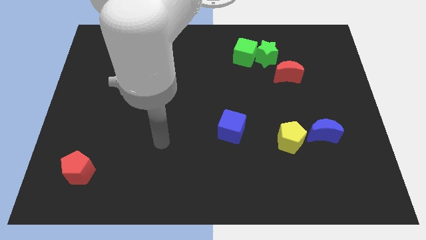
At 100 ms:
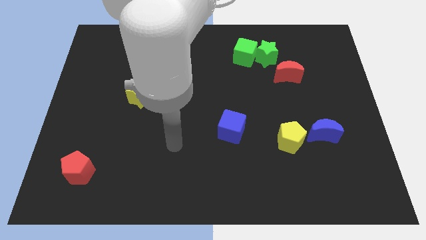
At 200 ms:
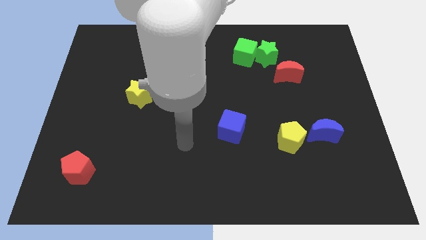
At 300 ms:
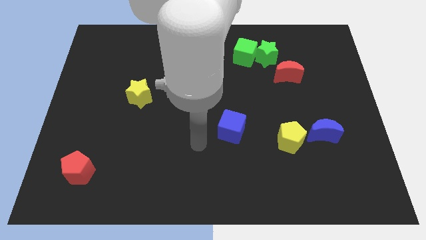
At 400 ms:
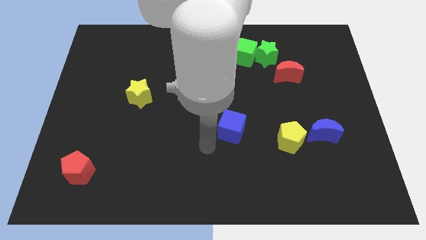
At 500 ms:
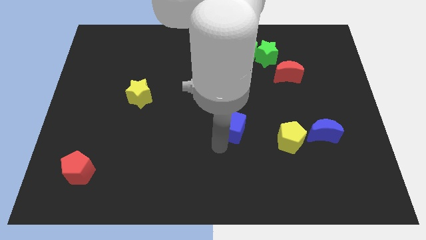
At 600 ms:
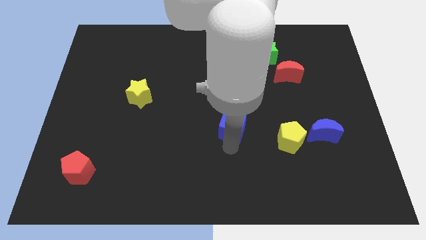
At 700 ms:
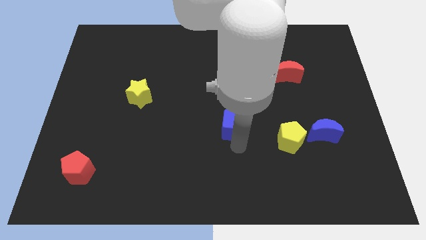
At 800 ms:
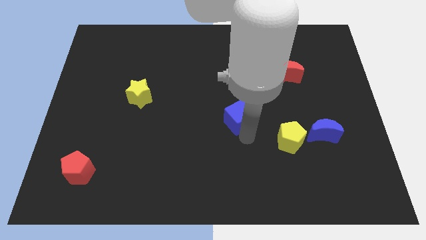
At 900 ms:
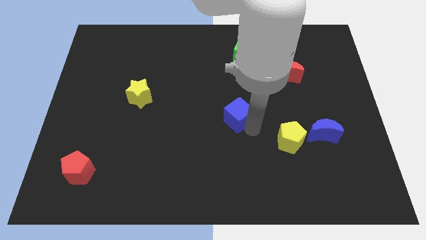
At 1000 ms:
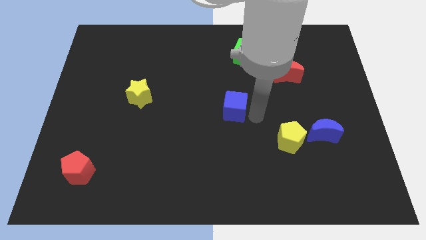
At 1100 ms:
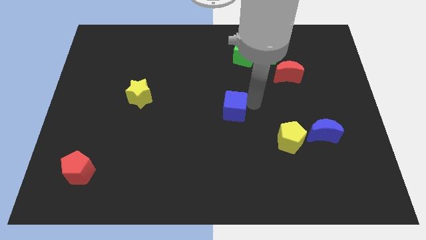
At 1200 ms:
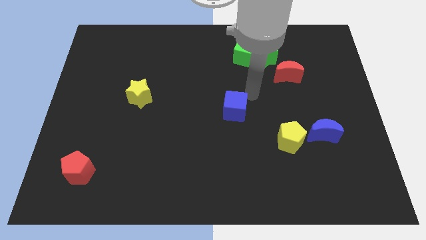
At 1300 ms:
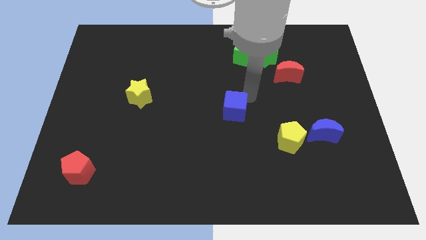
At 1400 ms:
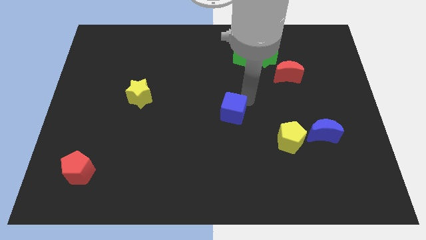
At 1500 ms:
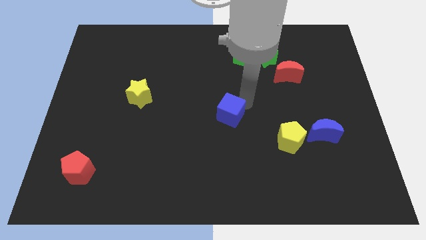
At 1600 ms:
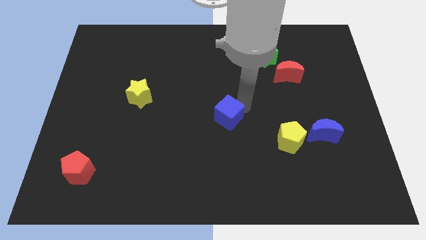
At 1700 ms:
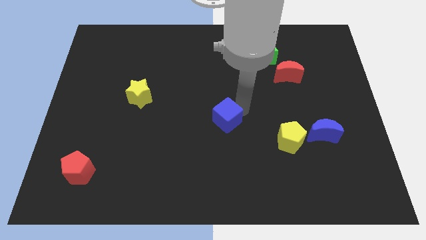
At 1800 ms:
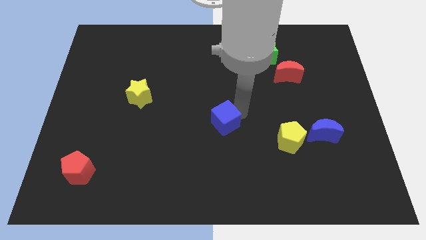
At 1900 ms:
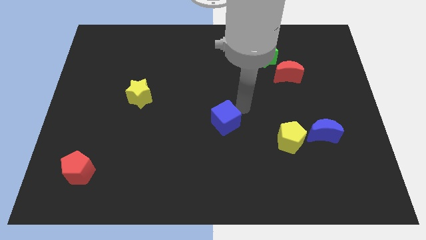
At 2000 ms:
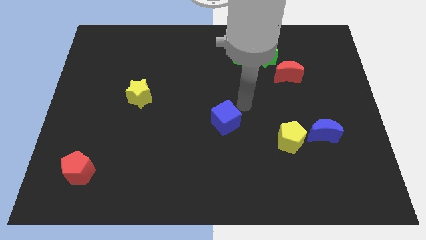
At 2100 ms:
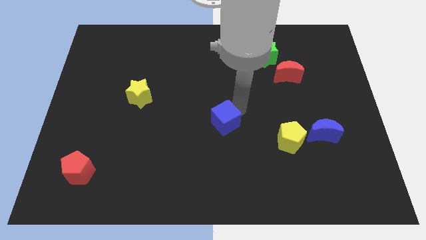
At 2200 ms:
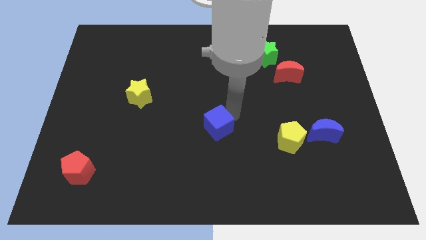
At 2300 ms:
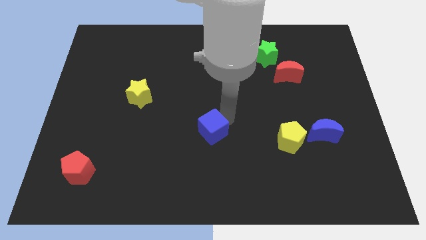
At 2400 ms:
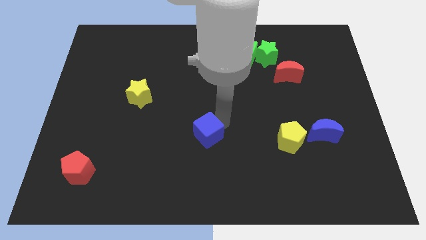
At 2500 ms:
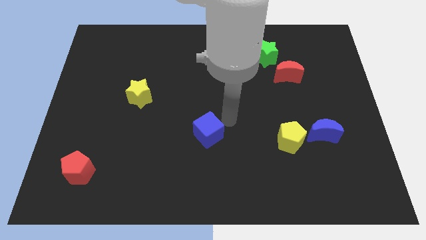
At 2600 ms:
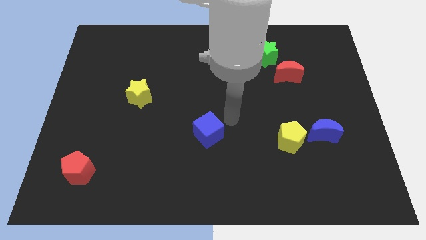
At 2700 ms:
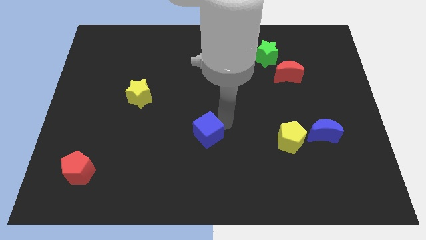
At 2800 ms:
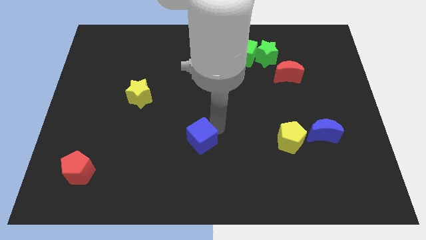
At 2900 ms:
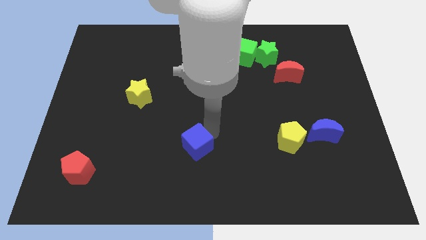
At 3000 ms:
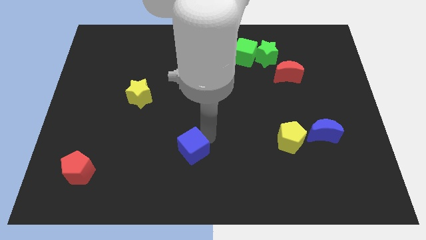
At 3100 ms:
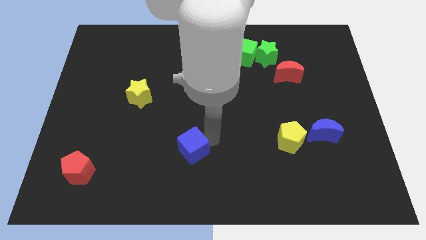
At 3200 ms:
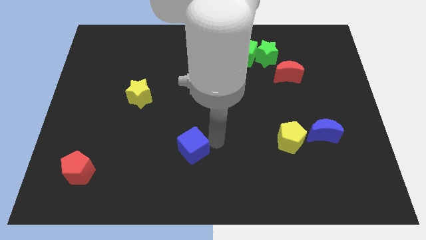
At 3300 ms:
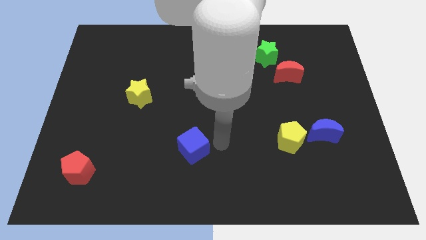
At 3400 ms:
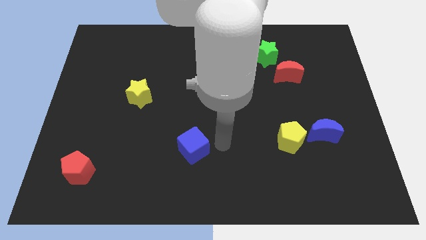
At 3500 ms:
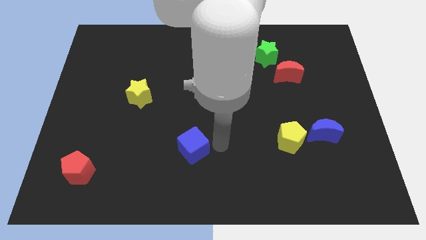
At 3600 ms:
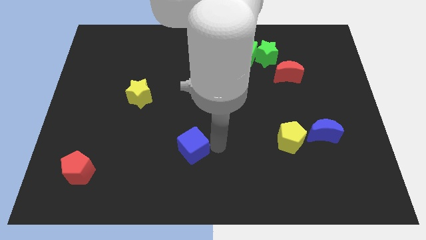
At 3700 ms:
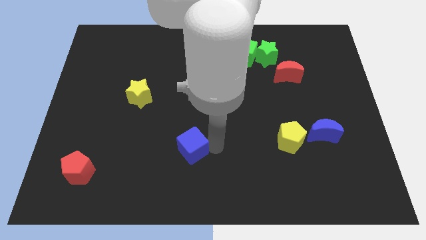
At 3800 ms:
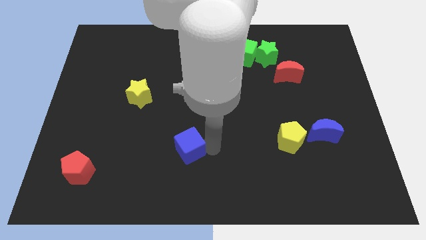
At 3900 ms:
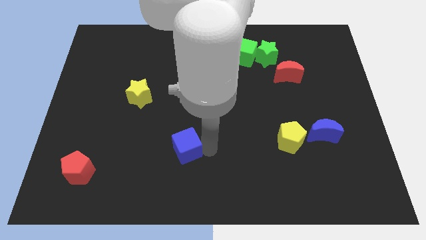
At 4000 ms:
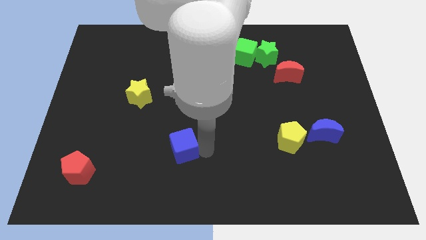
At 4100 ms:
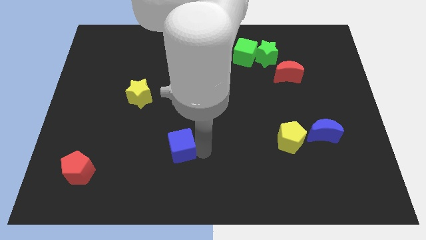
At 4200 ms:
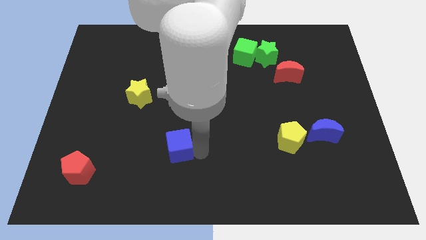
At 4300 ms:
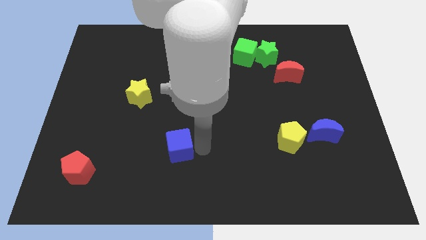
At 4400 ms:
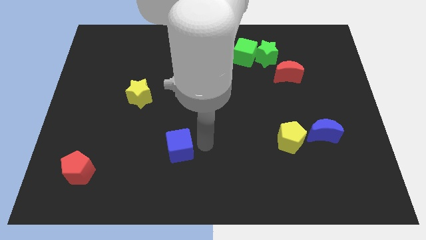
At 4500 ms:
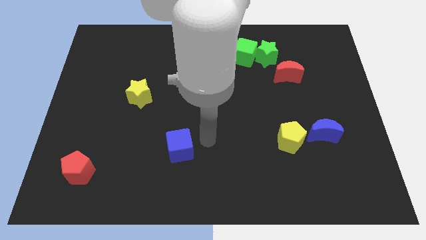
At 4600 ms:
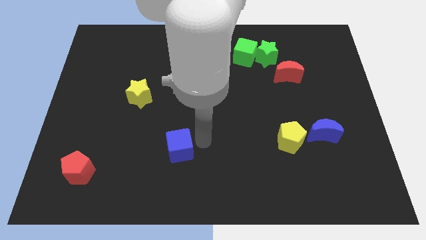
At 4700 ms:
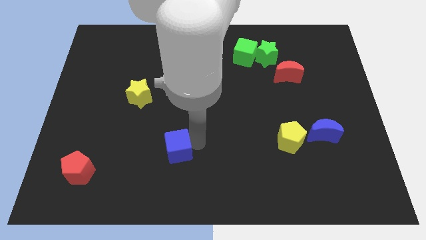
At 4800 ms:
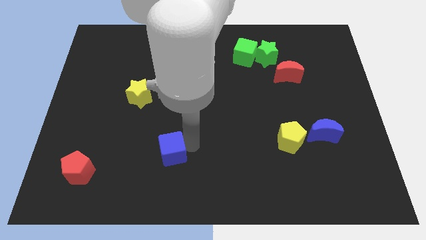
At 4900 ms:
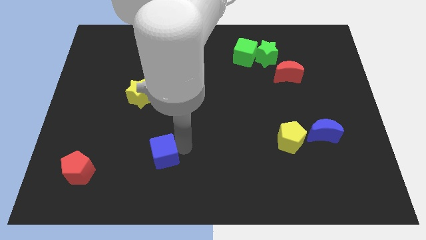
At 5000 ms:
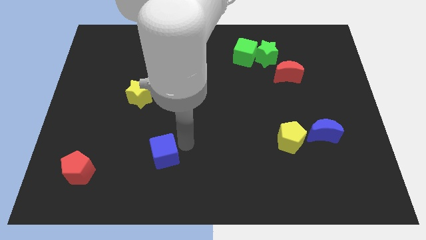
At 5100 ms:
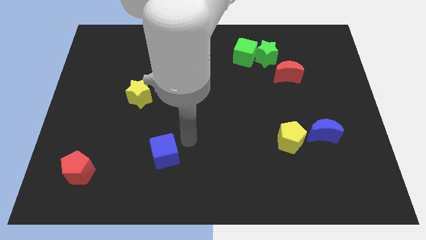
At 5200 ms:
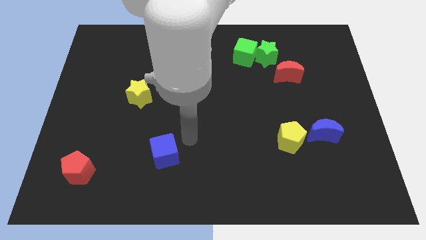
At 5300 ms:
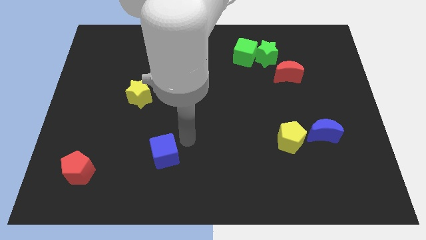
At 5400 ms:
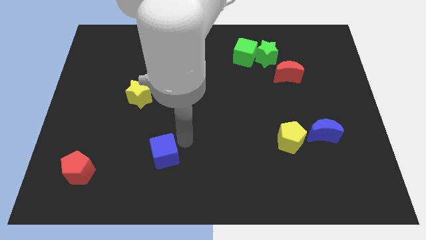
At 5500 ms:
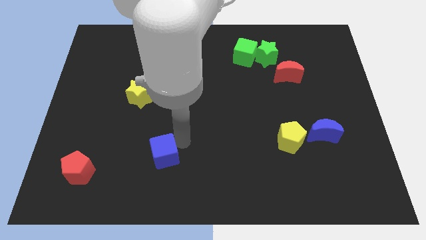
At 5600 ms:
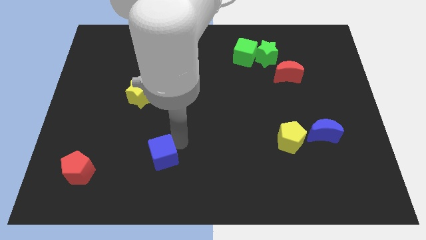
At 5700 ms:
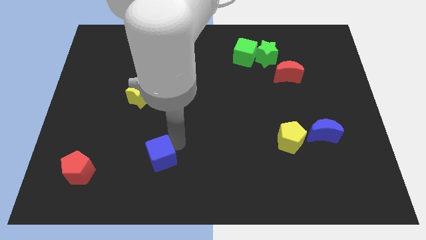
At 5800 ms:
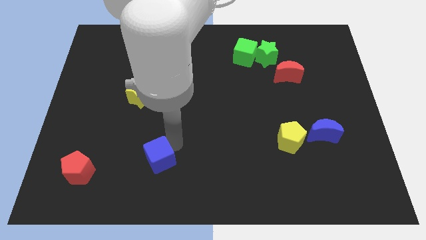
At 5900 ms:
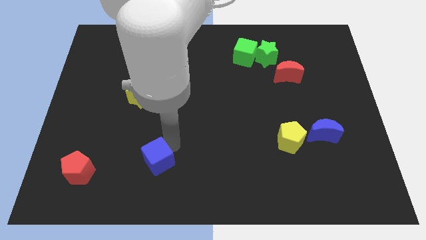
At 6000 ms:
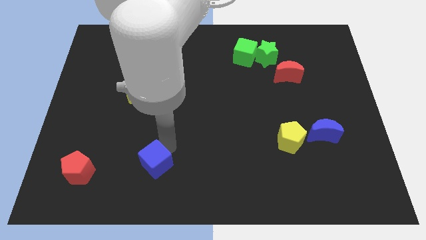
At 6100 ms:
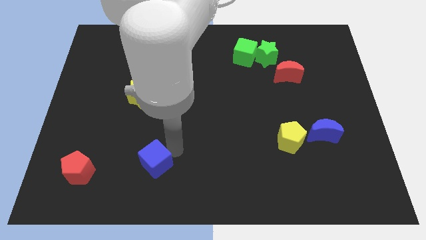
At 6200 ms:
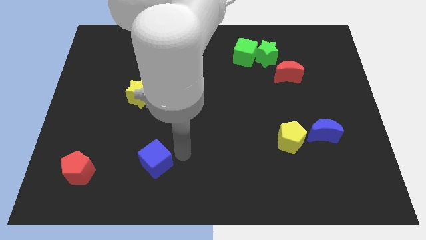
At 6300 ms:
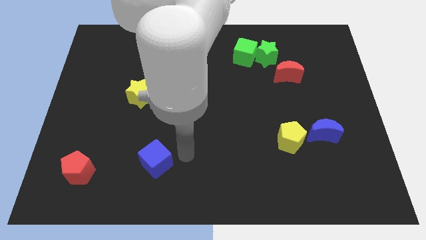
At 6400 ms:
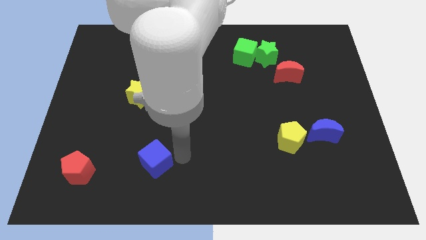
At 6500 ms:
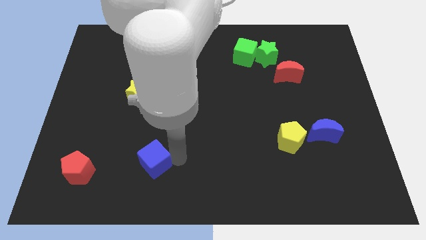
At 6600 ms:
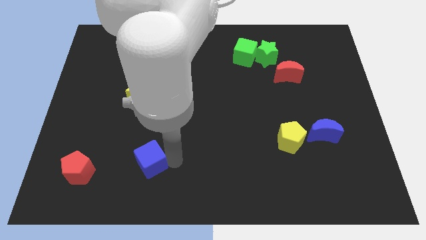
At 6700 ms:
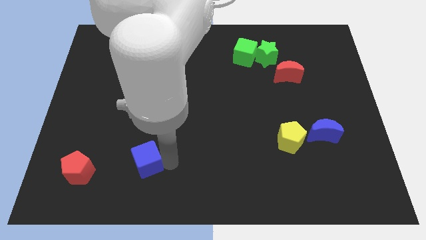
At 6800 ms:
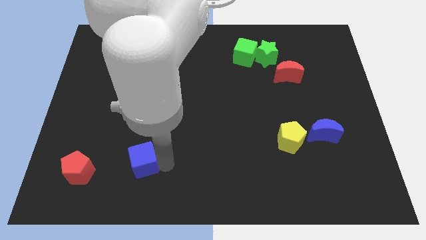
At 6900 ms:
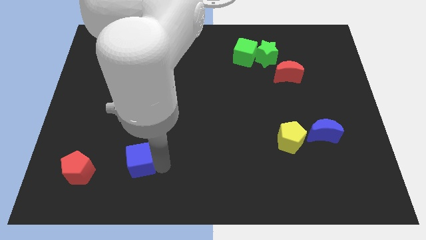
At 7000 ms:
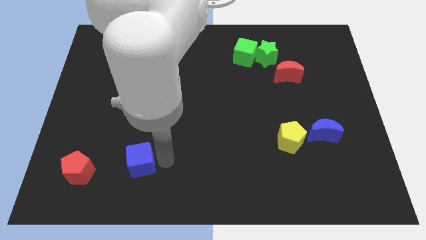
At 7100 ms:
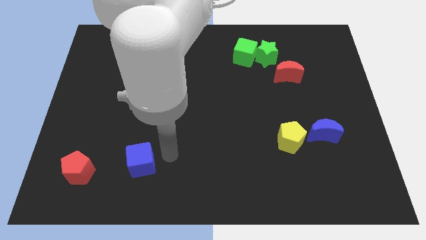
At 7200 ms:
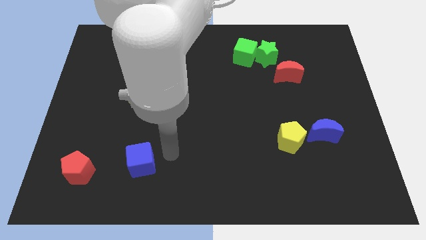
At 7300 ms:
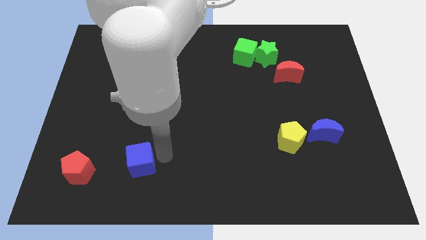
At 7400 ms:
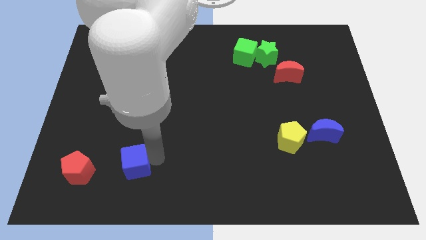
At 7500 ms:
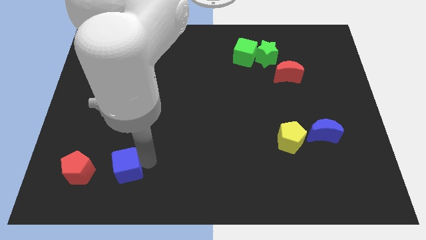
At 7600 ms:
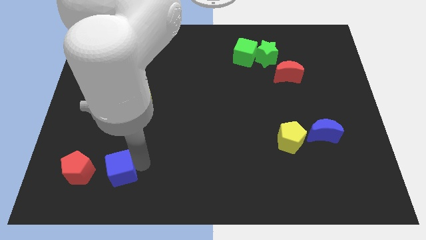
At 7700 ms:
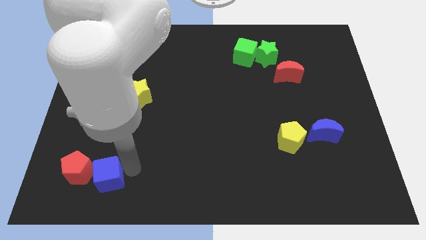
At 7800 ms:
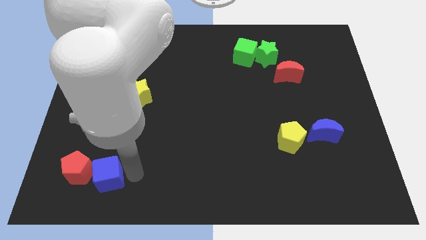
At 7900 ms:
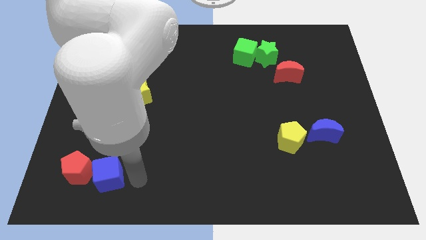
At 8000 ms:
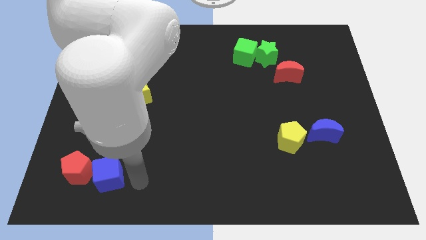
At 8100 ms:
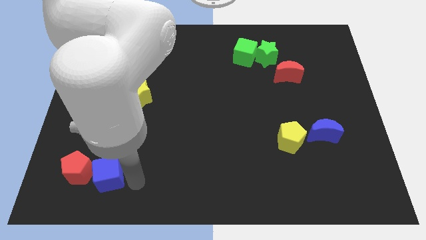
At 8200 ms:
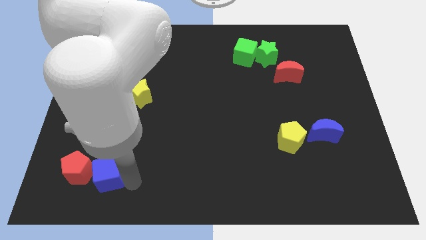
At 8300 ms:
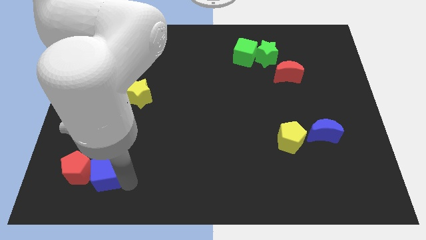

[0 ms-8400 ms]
push the blue cube towards the red pentagon
